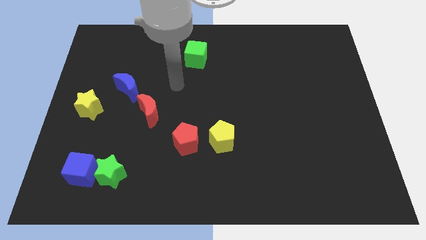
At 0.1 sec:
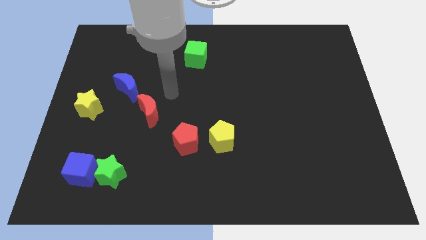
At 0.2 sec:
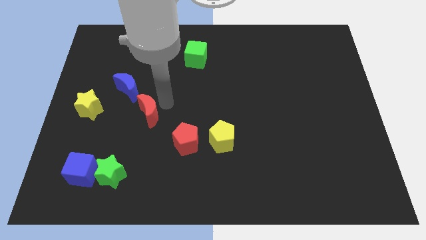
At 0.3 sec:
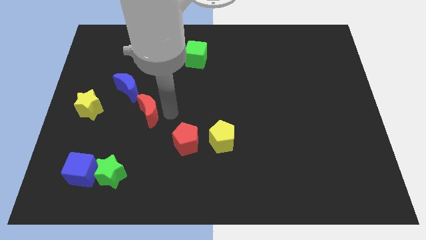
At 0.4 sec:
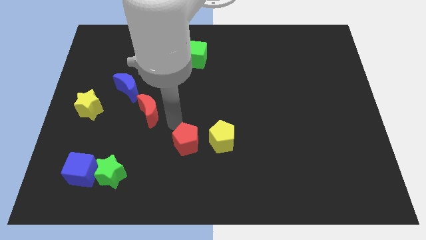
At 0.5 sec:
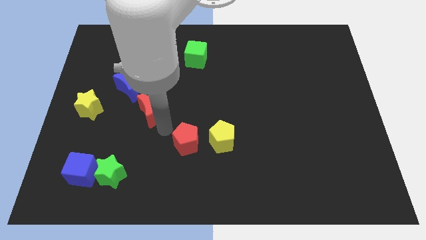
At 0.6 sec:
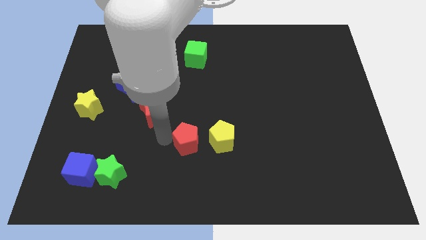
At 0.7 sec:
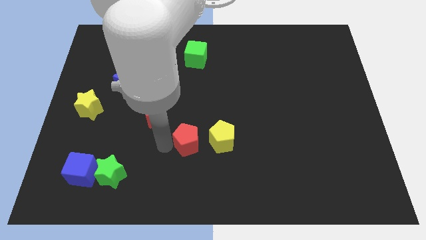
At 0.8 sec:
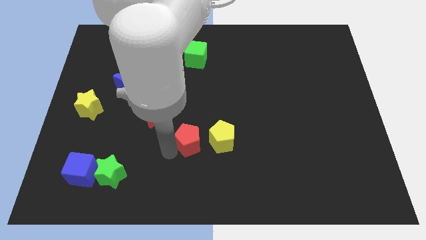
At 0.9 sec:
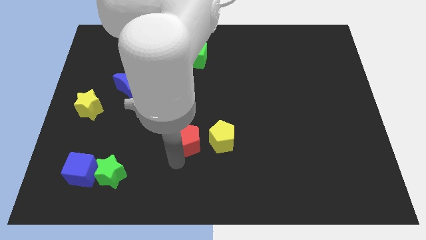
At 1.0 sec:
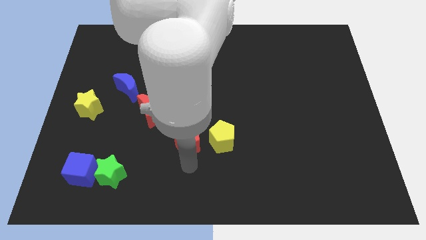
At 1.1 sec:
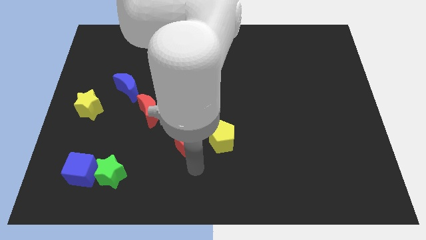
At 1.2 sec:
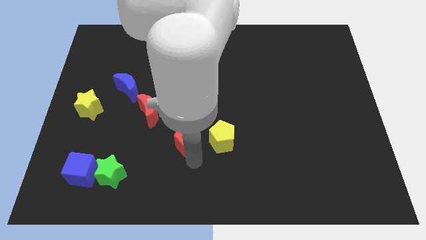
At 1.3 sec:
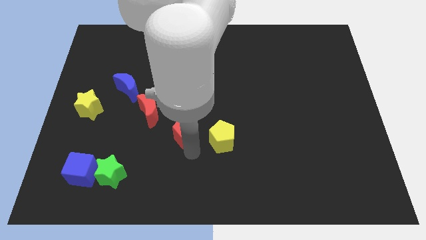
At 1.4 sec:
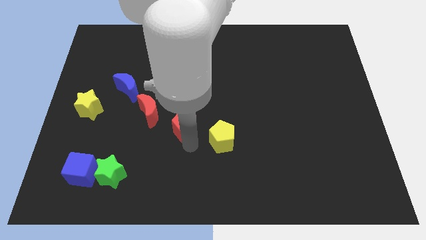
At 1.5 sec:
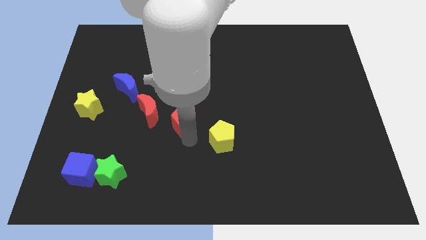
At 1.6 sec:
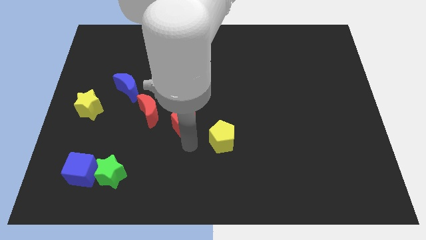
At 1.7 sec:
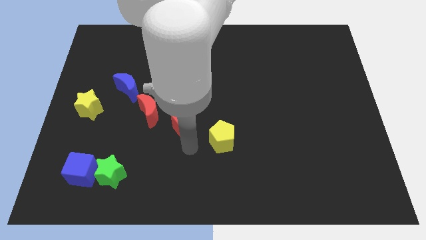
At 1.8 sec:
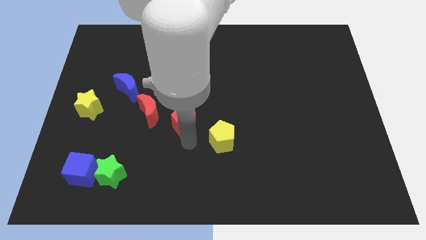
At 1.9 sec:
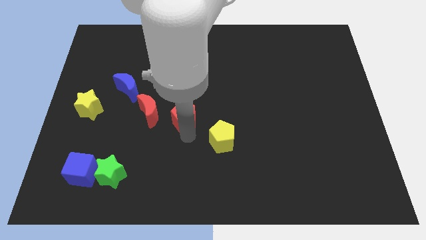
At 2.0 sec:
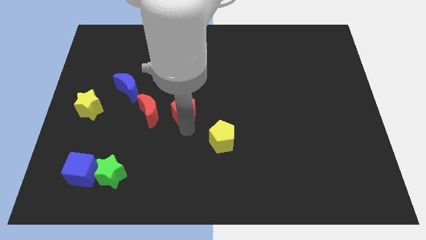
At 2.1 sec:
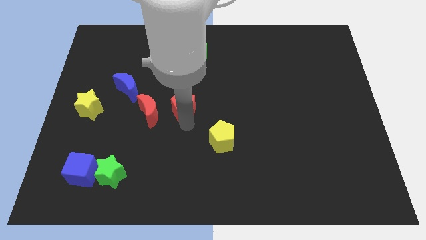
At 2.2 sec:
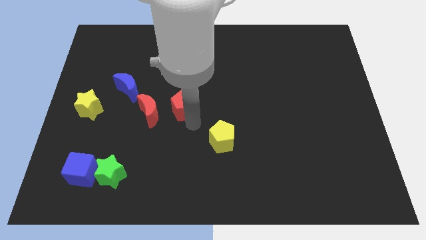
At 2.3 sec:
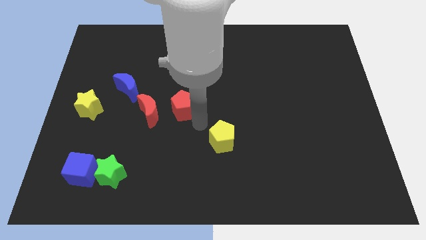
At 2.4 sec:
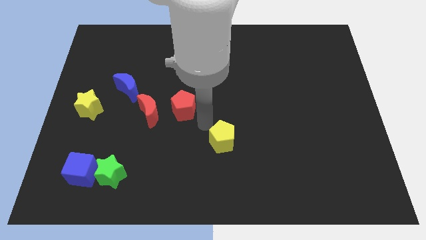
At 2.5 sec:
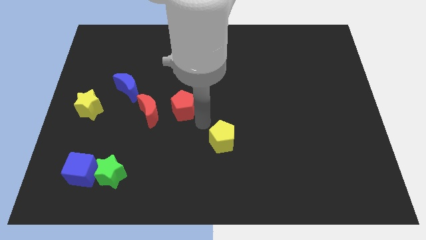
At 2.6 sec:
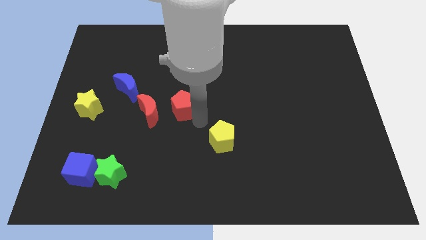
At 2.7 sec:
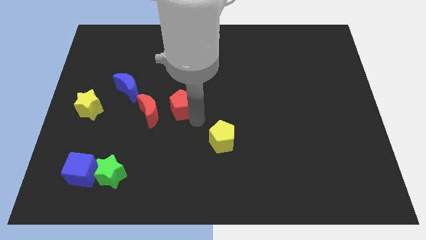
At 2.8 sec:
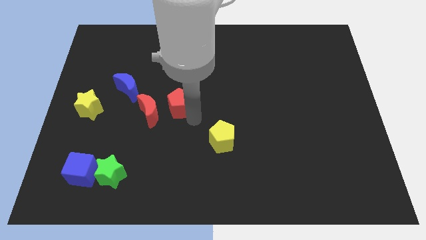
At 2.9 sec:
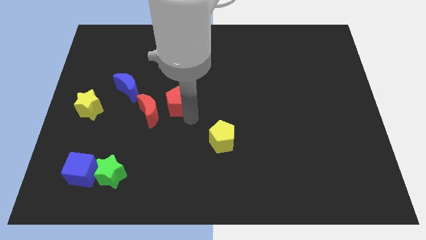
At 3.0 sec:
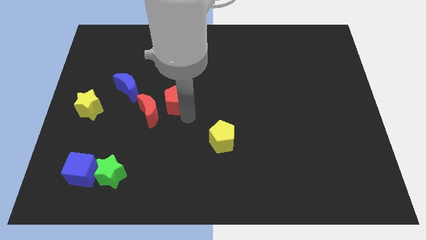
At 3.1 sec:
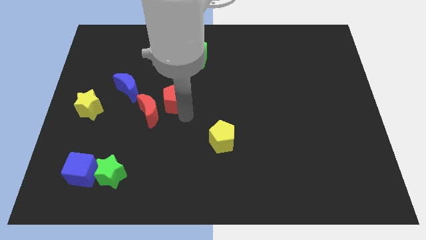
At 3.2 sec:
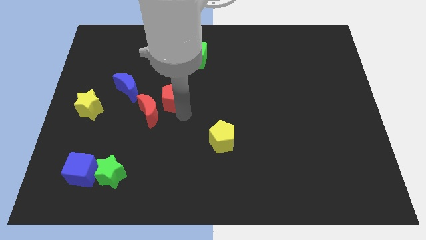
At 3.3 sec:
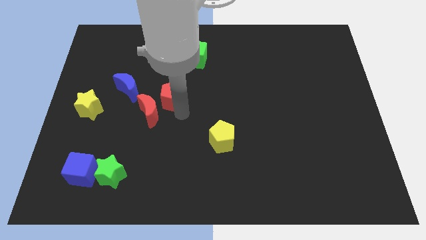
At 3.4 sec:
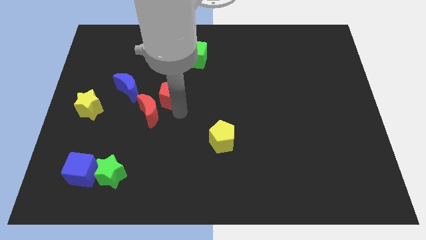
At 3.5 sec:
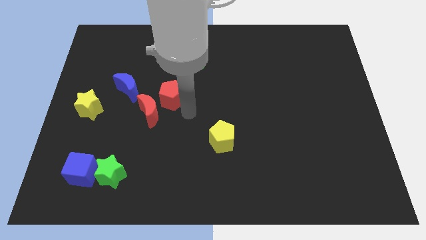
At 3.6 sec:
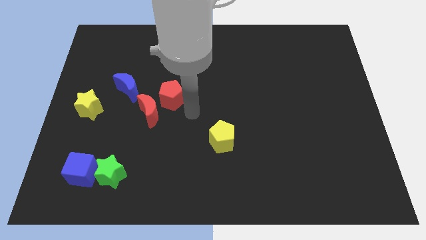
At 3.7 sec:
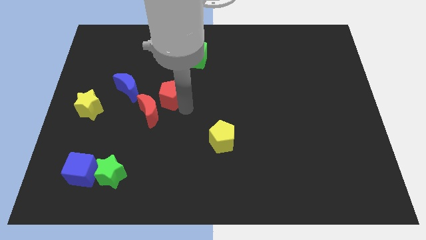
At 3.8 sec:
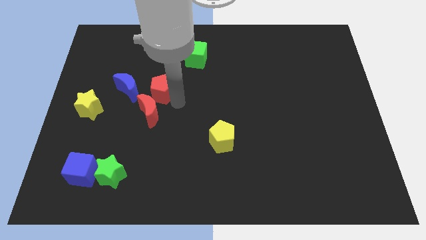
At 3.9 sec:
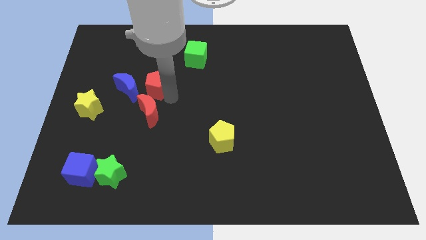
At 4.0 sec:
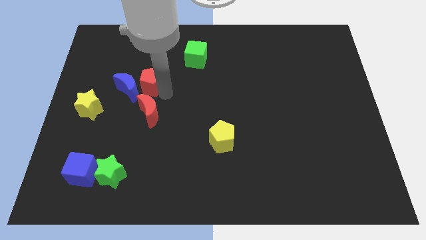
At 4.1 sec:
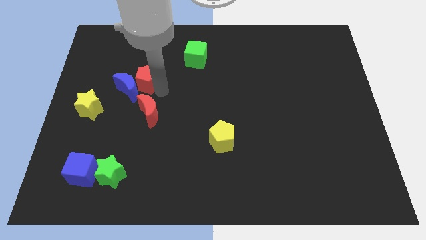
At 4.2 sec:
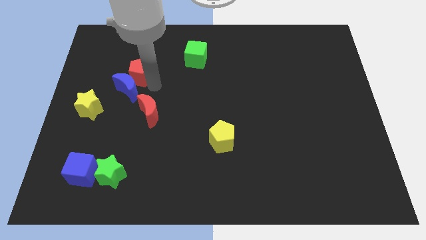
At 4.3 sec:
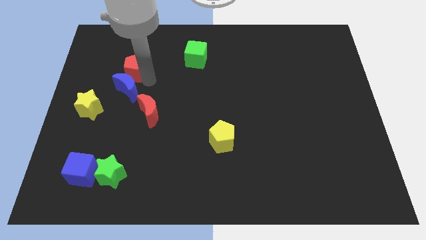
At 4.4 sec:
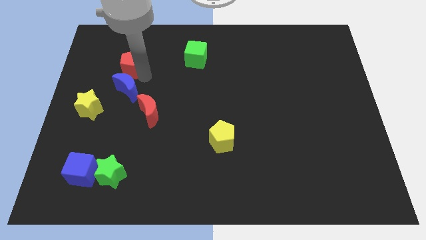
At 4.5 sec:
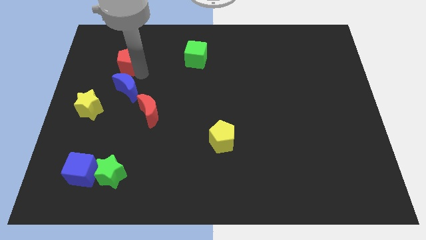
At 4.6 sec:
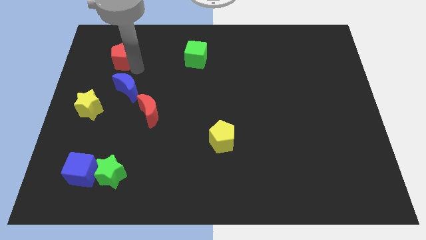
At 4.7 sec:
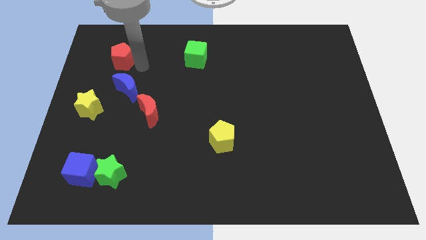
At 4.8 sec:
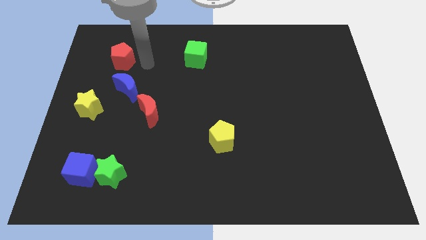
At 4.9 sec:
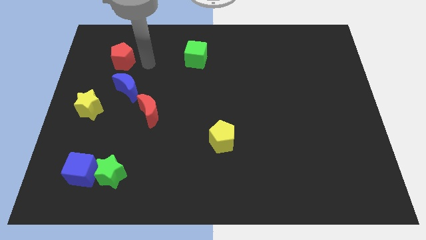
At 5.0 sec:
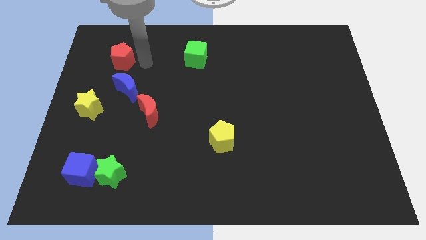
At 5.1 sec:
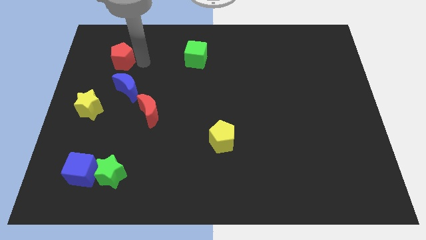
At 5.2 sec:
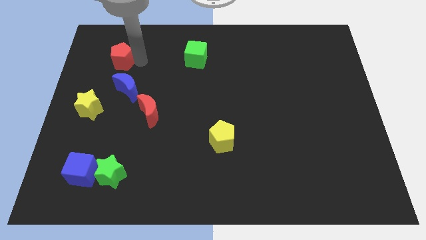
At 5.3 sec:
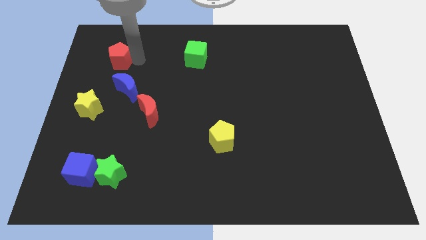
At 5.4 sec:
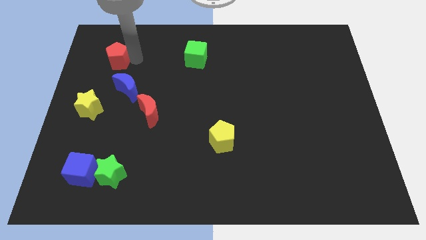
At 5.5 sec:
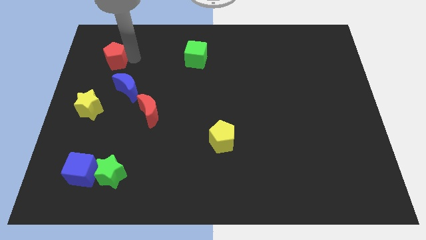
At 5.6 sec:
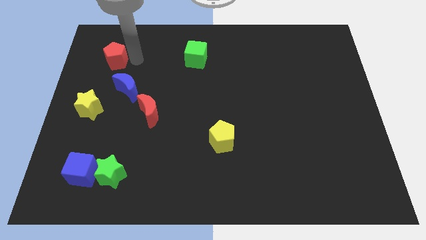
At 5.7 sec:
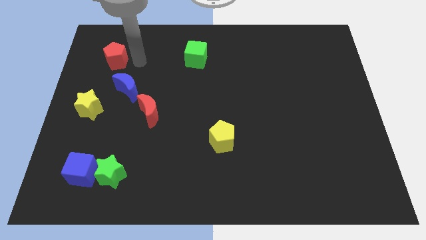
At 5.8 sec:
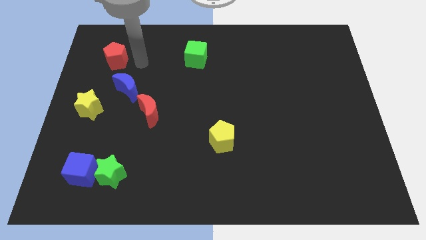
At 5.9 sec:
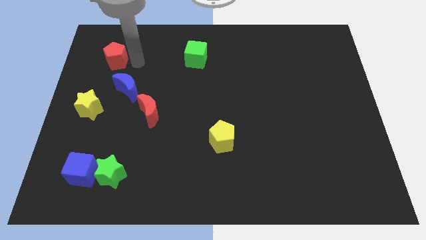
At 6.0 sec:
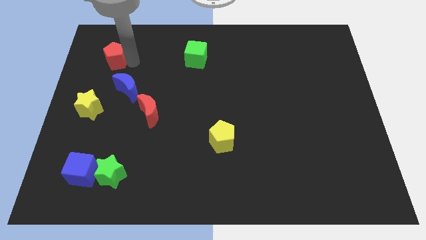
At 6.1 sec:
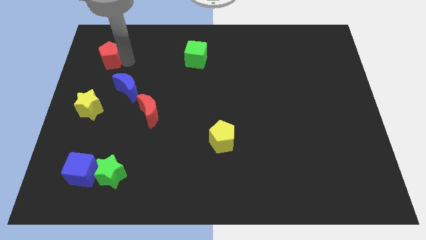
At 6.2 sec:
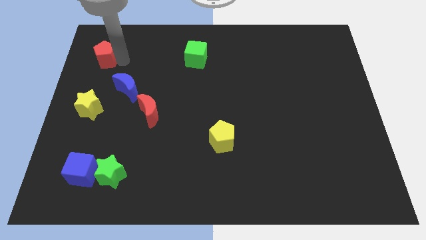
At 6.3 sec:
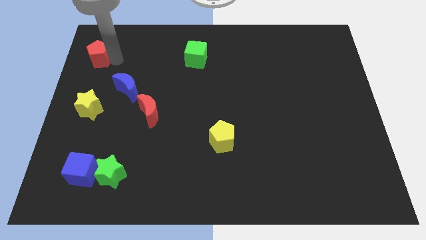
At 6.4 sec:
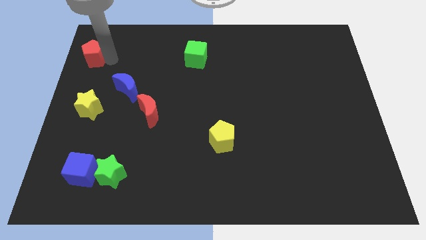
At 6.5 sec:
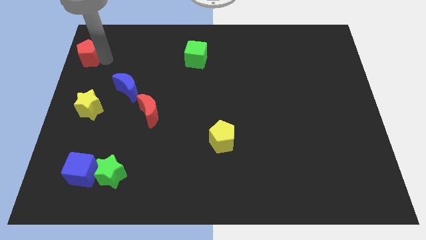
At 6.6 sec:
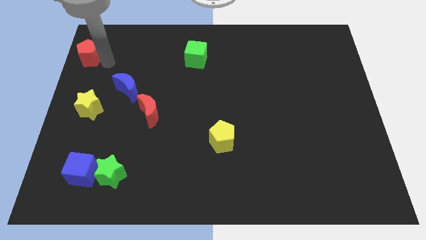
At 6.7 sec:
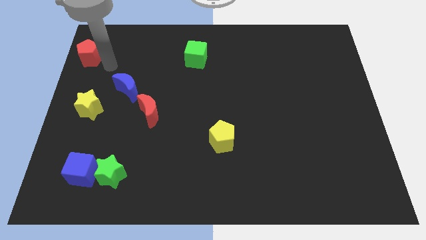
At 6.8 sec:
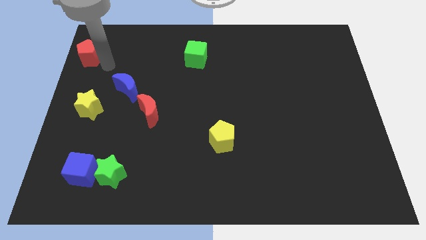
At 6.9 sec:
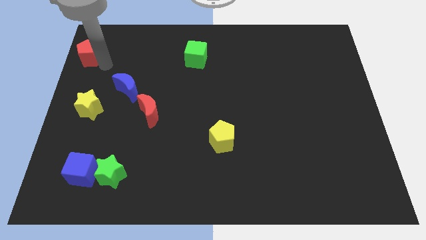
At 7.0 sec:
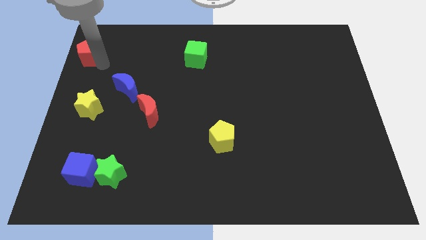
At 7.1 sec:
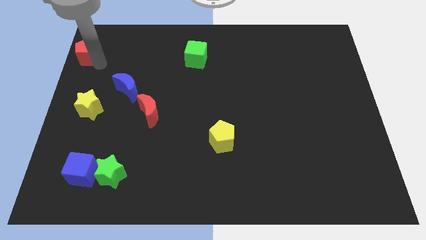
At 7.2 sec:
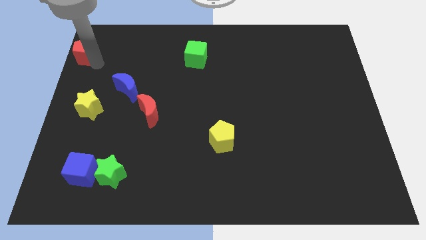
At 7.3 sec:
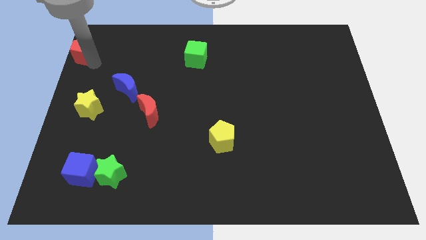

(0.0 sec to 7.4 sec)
slide the red pentagon to the top left corner
